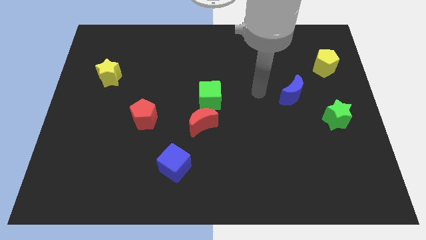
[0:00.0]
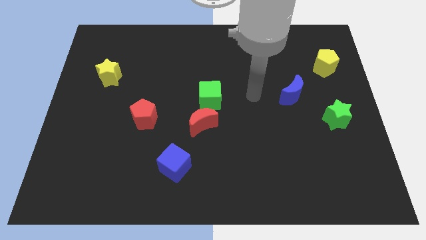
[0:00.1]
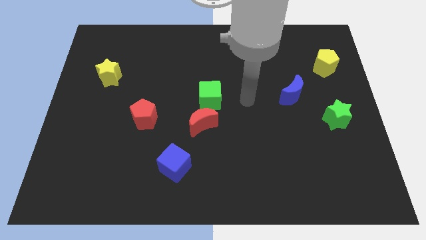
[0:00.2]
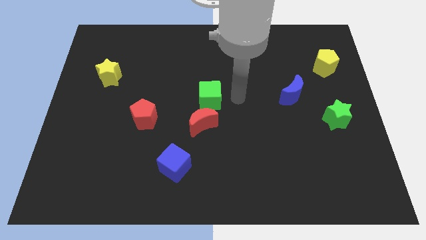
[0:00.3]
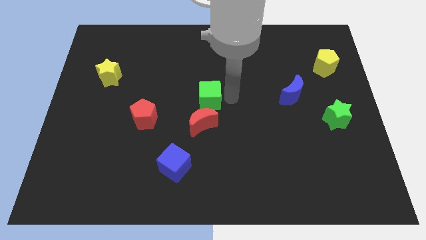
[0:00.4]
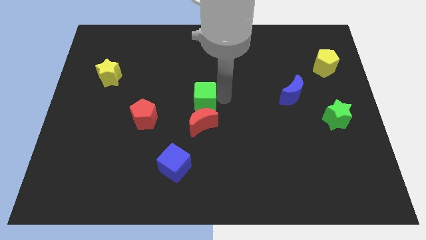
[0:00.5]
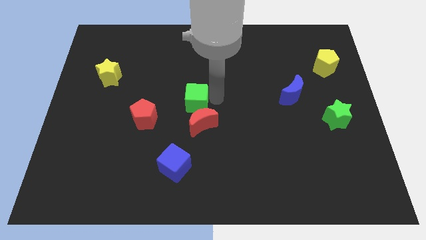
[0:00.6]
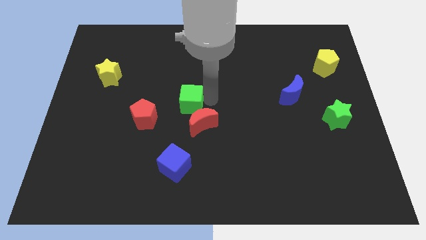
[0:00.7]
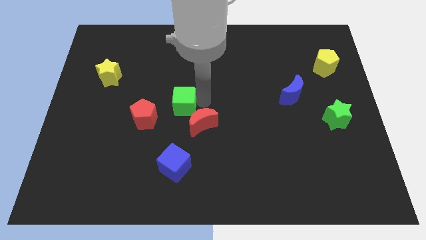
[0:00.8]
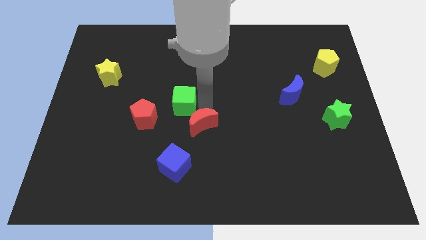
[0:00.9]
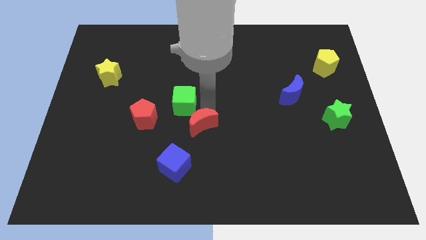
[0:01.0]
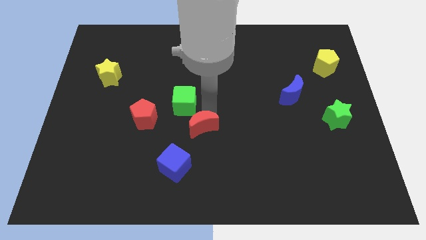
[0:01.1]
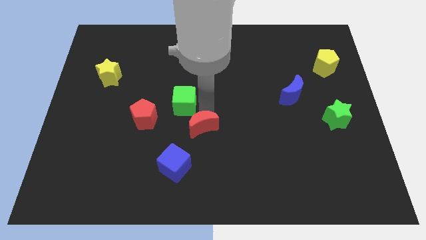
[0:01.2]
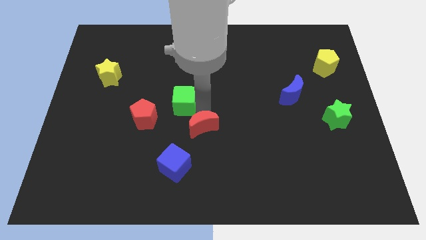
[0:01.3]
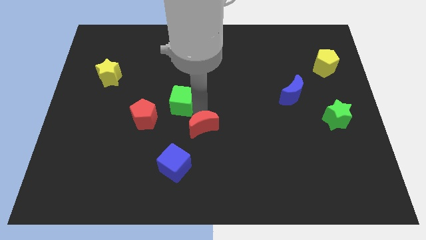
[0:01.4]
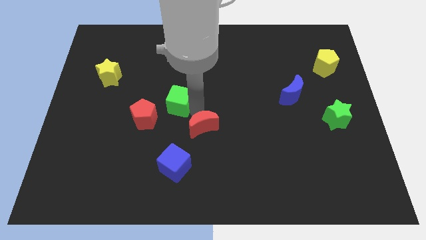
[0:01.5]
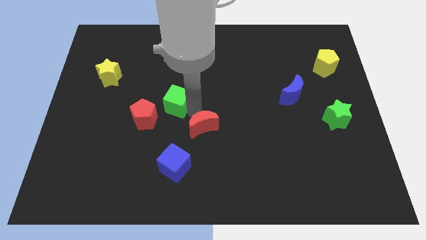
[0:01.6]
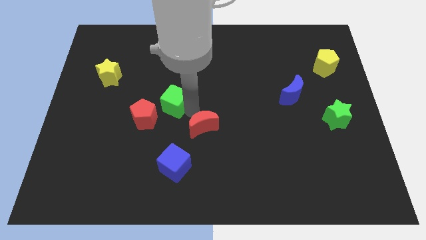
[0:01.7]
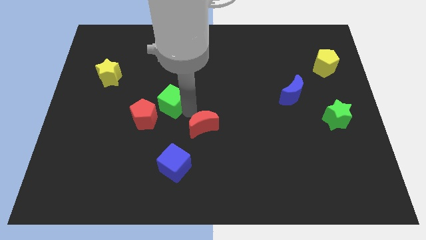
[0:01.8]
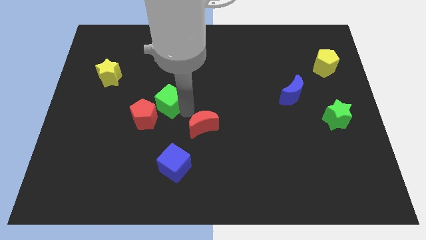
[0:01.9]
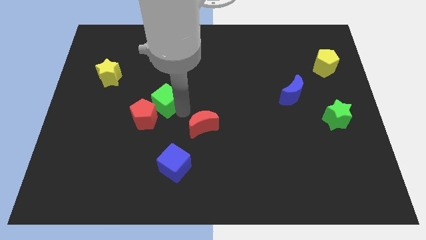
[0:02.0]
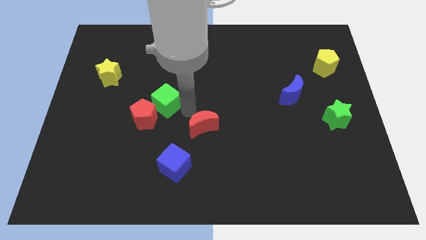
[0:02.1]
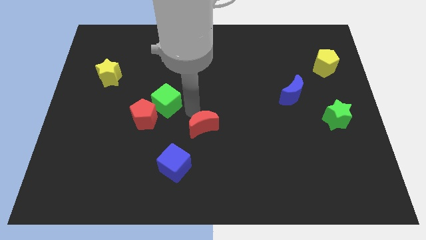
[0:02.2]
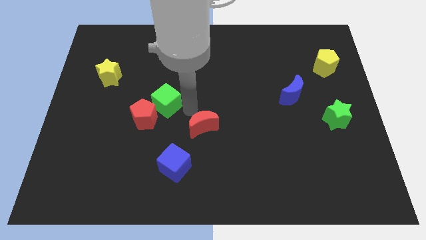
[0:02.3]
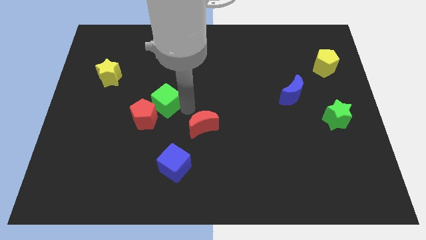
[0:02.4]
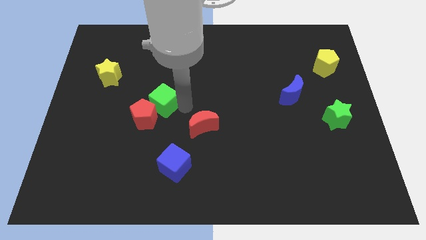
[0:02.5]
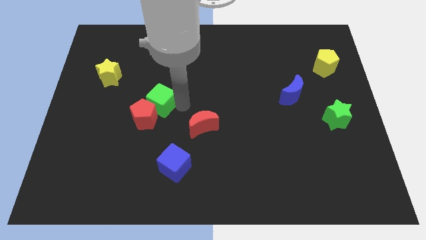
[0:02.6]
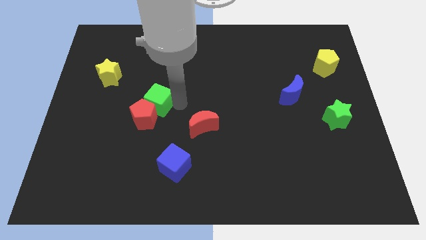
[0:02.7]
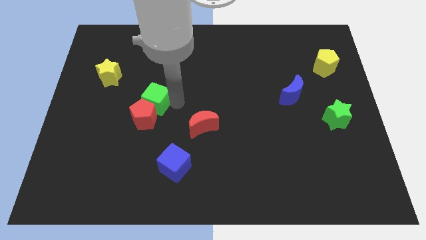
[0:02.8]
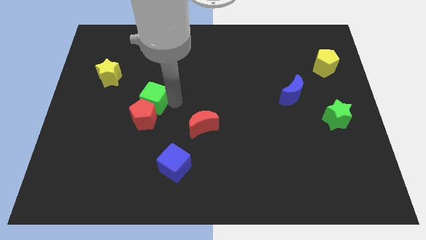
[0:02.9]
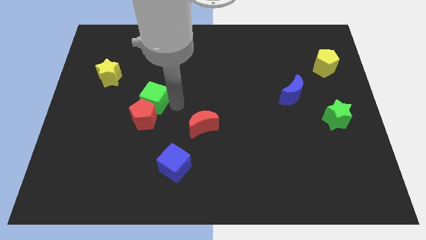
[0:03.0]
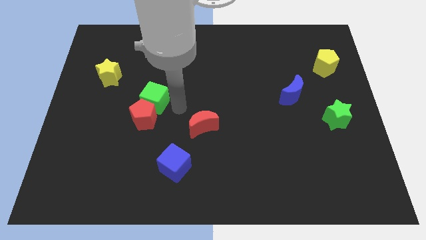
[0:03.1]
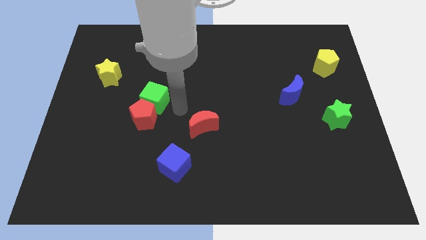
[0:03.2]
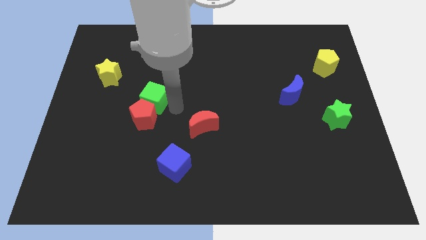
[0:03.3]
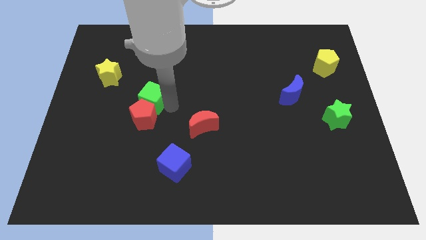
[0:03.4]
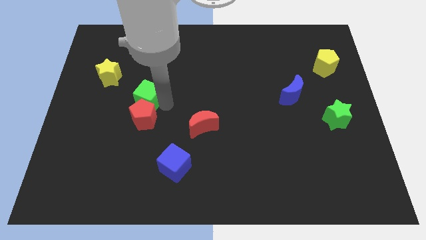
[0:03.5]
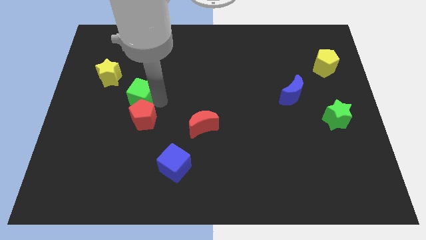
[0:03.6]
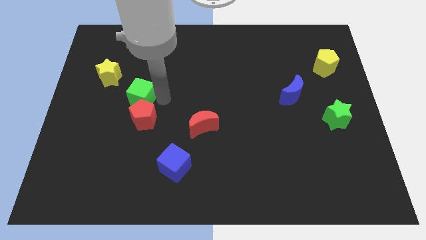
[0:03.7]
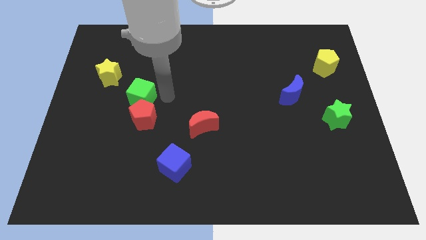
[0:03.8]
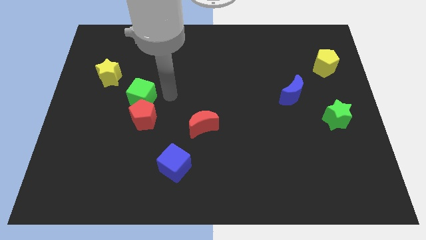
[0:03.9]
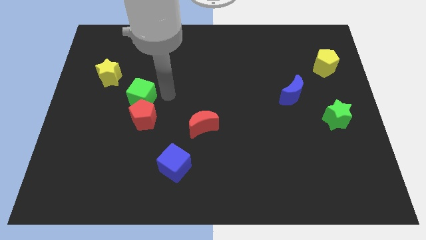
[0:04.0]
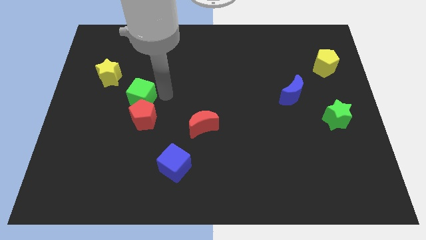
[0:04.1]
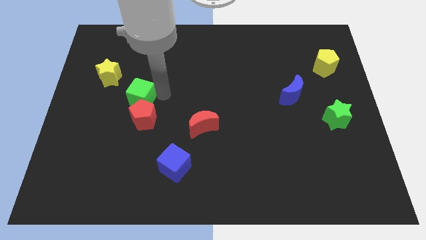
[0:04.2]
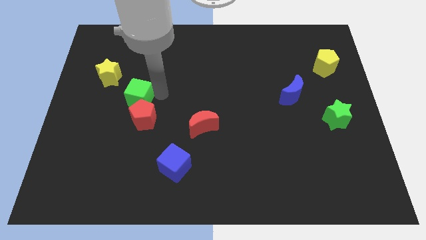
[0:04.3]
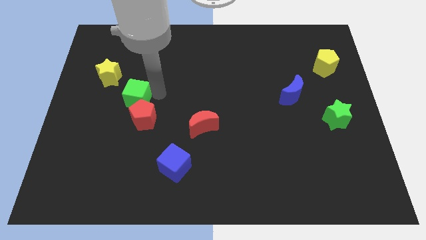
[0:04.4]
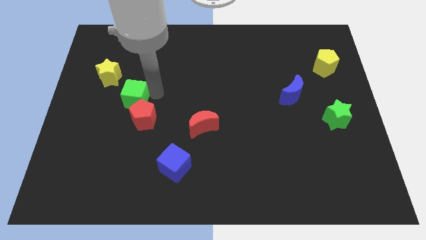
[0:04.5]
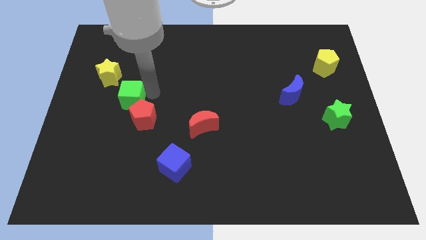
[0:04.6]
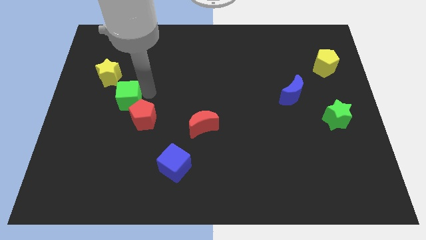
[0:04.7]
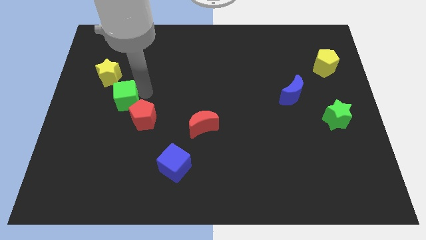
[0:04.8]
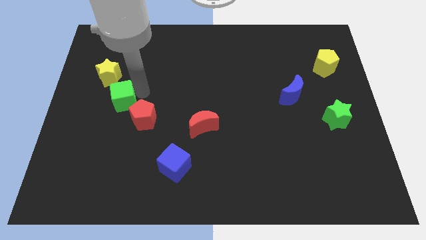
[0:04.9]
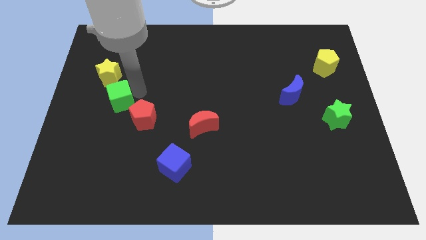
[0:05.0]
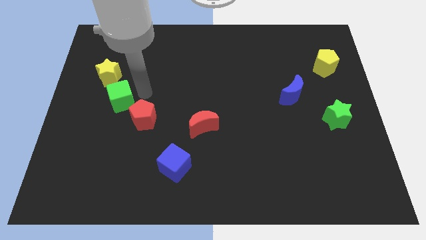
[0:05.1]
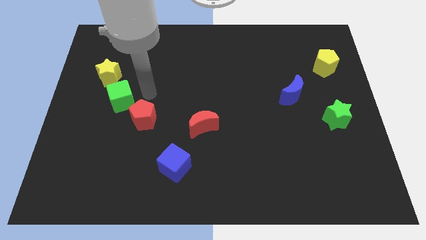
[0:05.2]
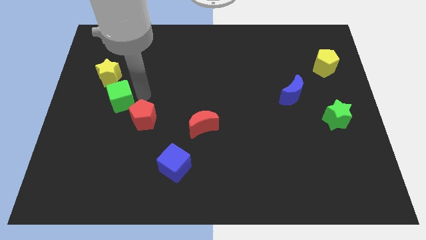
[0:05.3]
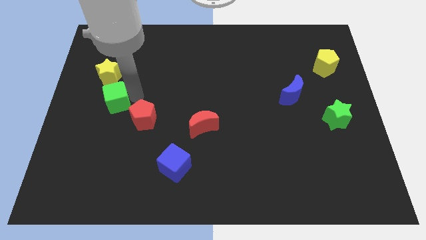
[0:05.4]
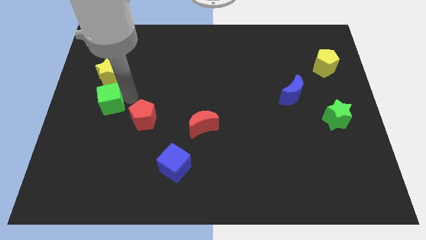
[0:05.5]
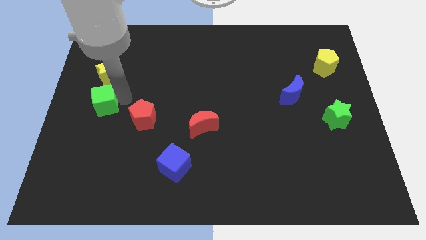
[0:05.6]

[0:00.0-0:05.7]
move the green cube to the center left
